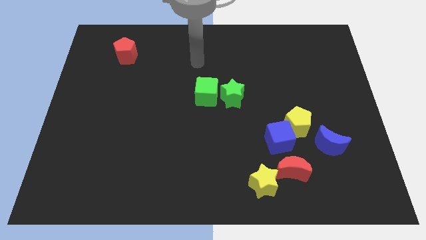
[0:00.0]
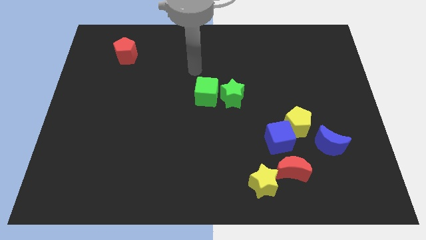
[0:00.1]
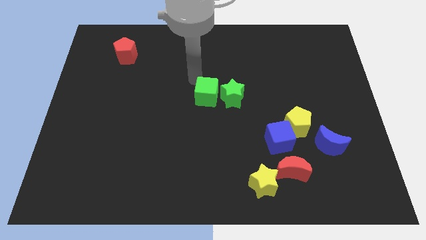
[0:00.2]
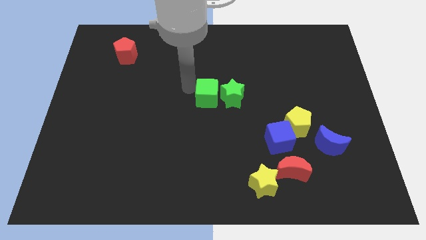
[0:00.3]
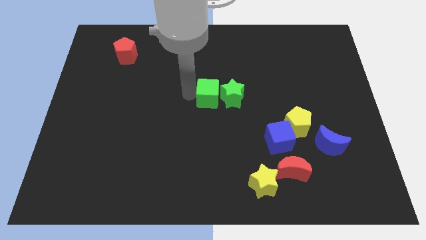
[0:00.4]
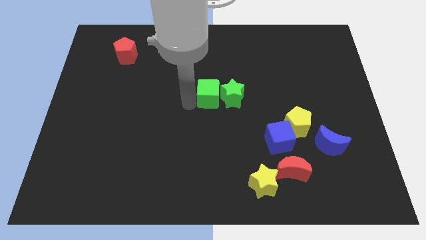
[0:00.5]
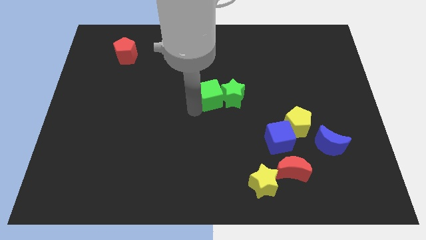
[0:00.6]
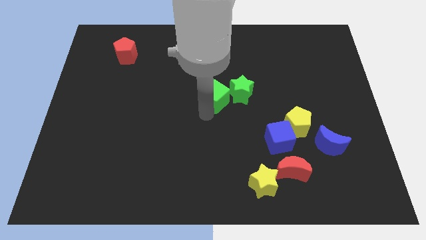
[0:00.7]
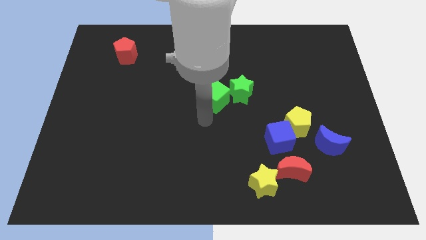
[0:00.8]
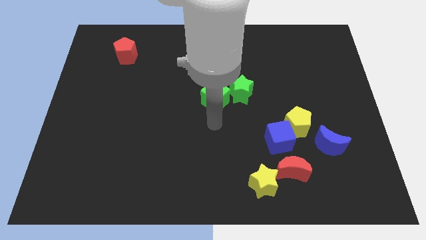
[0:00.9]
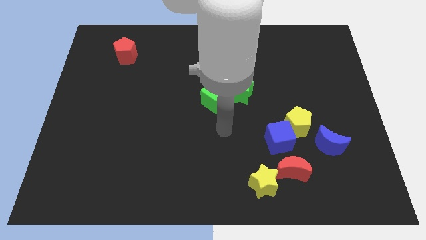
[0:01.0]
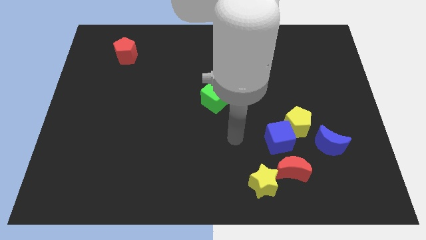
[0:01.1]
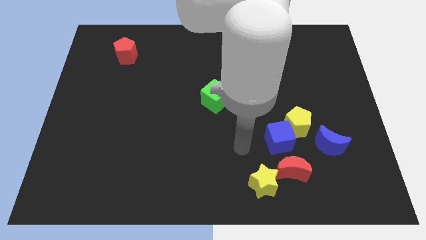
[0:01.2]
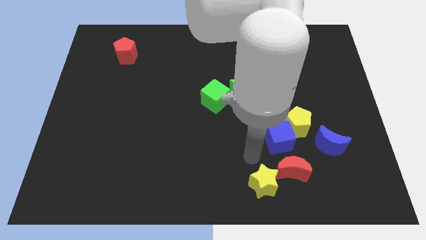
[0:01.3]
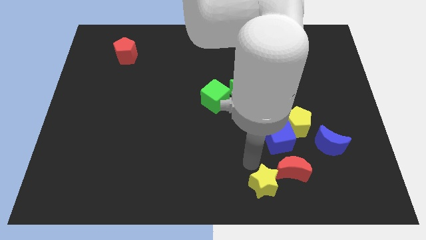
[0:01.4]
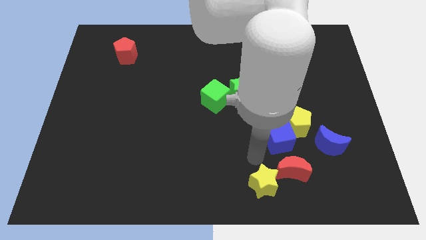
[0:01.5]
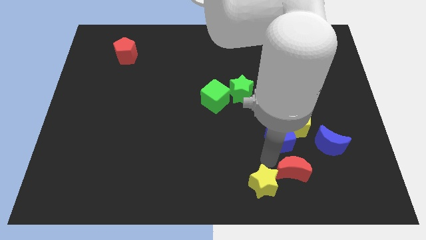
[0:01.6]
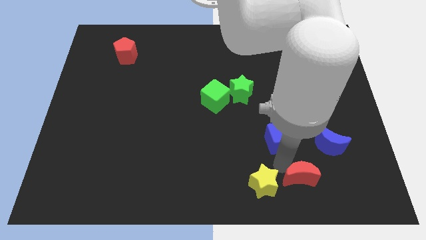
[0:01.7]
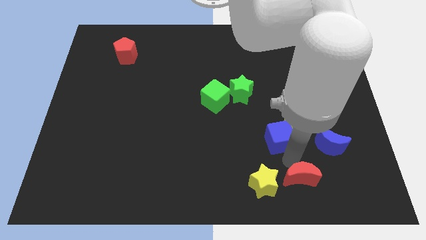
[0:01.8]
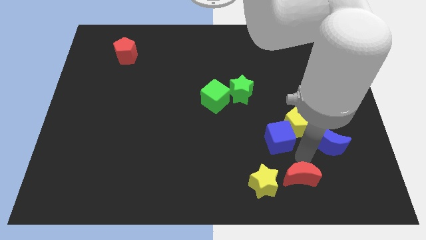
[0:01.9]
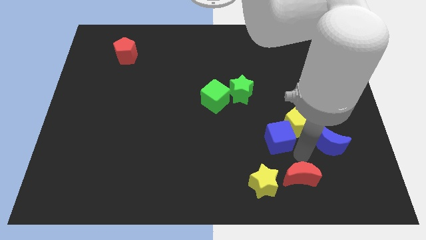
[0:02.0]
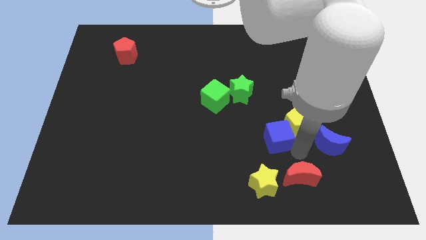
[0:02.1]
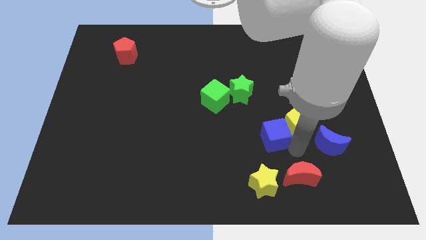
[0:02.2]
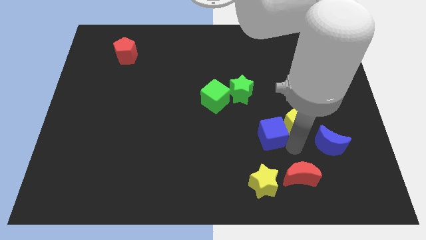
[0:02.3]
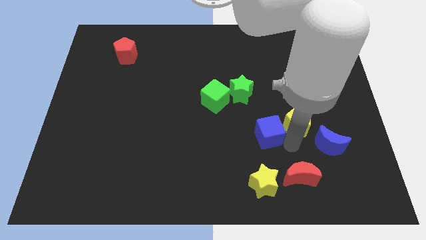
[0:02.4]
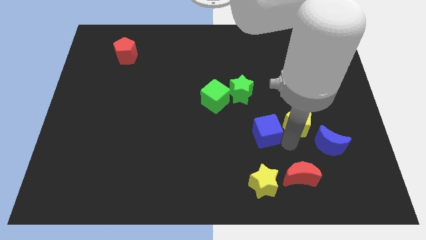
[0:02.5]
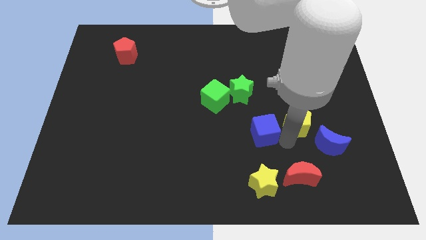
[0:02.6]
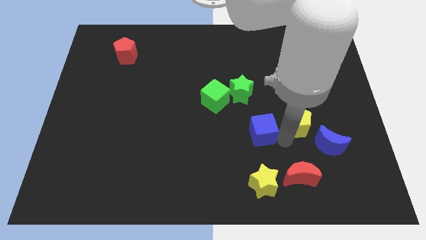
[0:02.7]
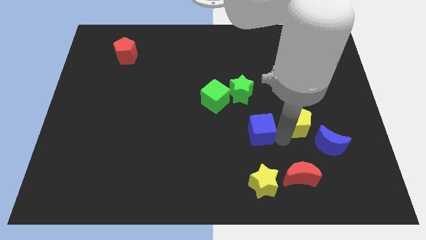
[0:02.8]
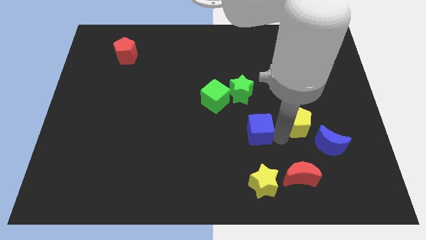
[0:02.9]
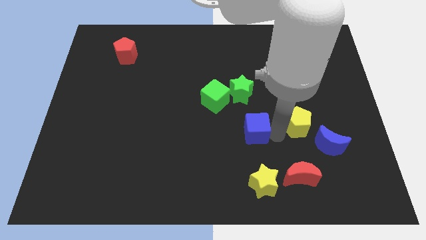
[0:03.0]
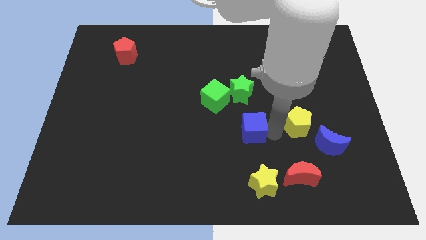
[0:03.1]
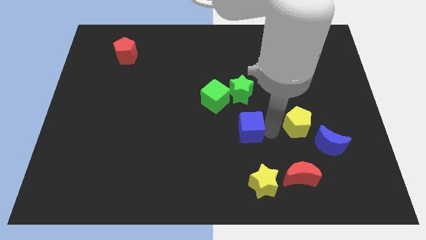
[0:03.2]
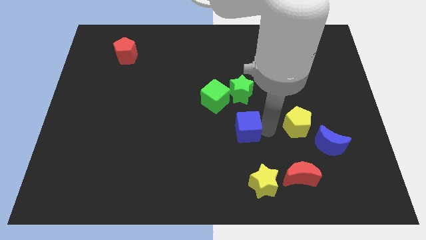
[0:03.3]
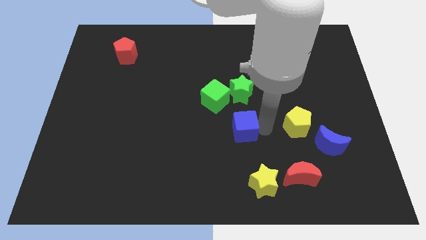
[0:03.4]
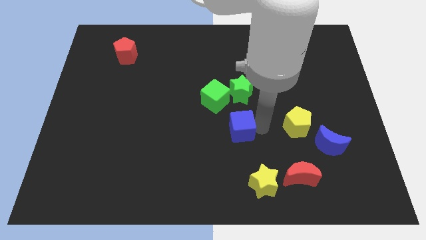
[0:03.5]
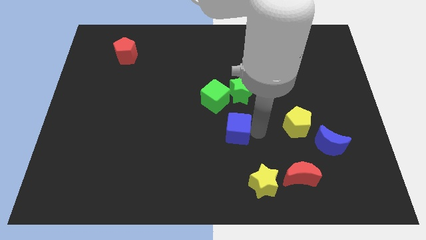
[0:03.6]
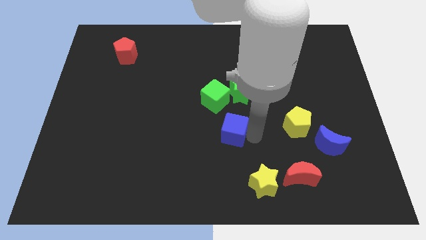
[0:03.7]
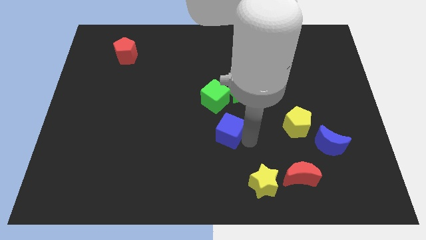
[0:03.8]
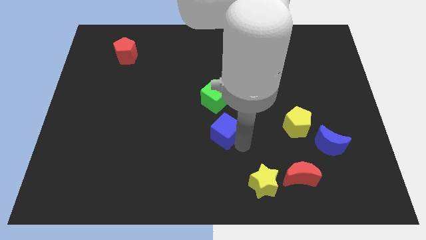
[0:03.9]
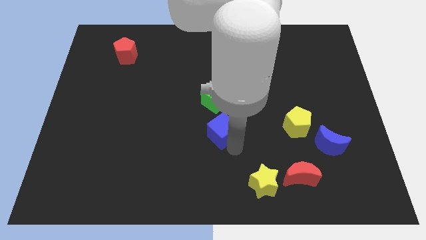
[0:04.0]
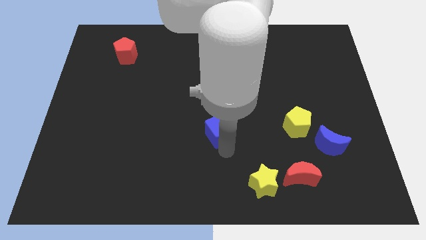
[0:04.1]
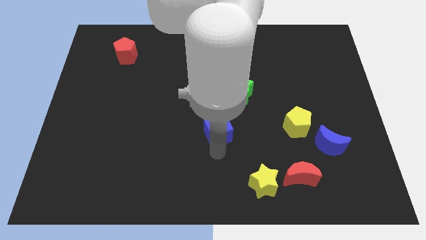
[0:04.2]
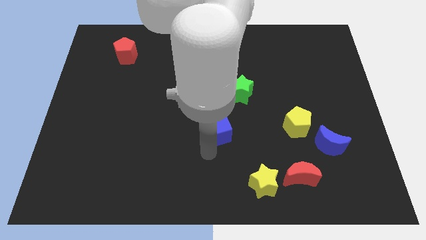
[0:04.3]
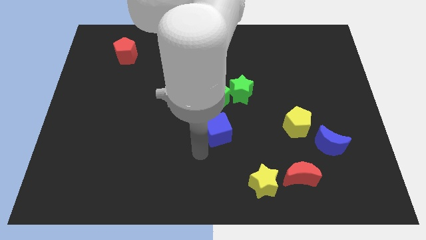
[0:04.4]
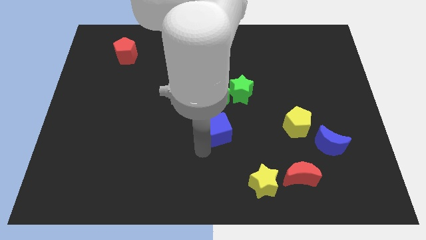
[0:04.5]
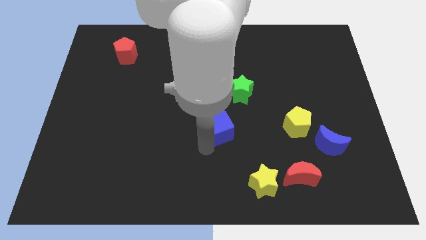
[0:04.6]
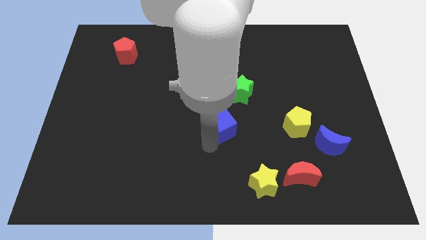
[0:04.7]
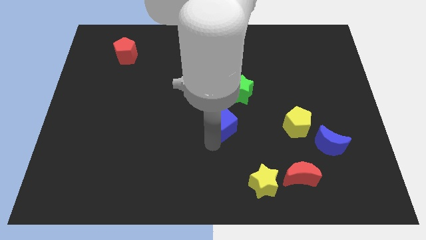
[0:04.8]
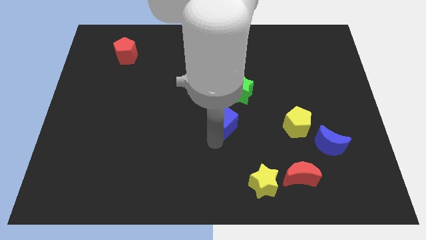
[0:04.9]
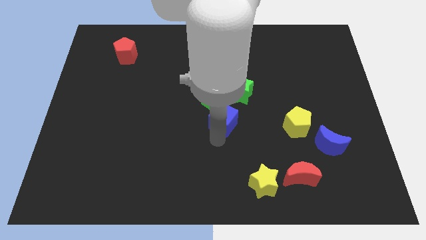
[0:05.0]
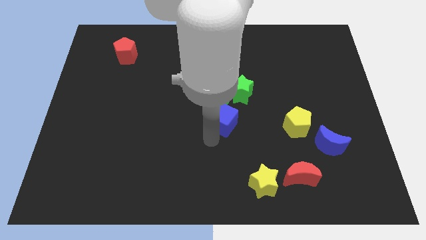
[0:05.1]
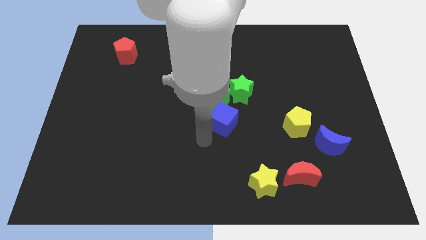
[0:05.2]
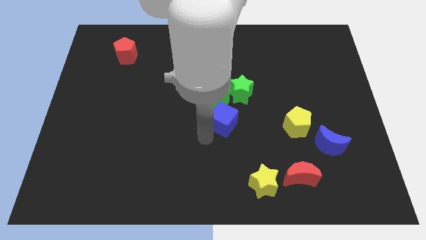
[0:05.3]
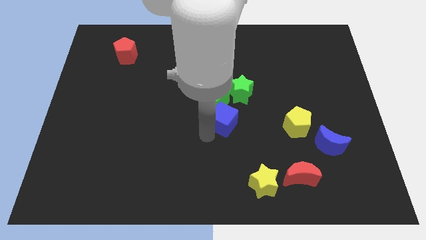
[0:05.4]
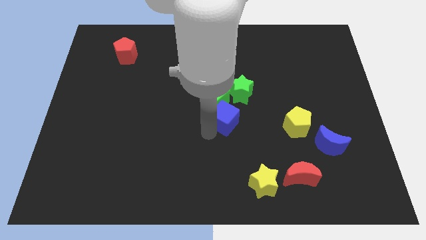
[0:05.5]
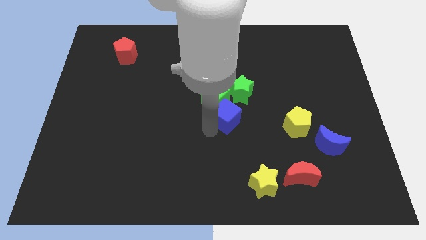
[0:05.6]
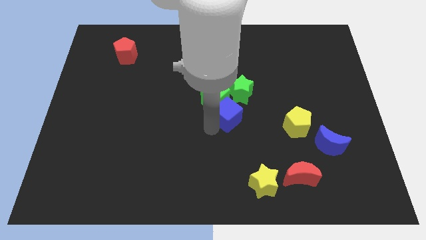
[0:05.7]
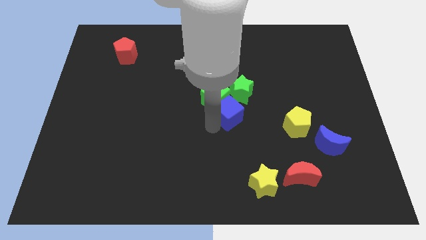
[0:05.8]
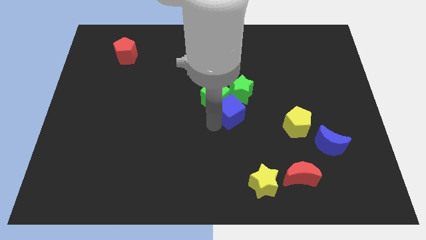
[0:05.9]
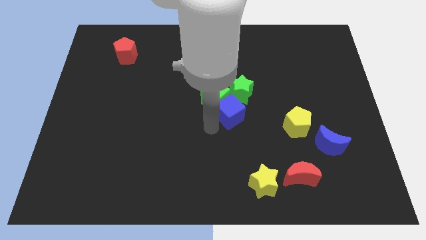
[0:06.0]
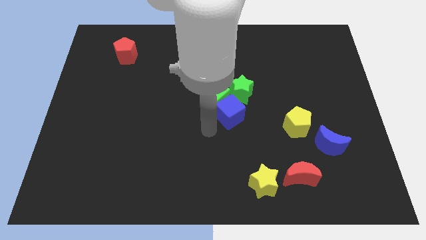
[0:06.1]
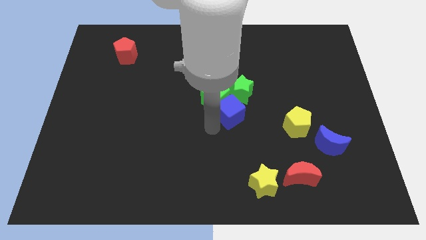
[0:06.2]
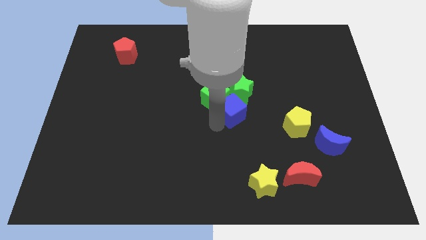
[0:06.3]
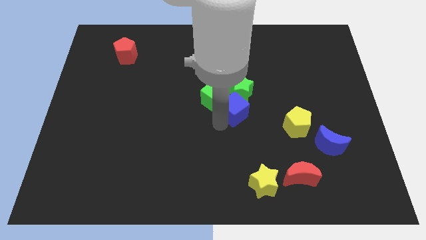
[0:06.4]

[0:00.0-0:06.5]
slide the blue cube towards the green star

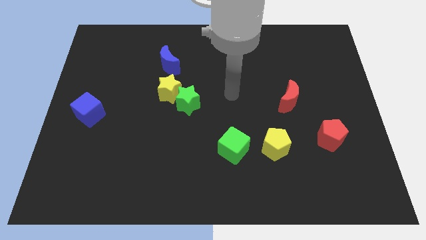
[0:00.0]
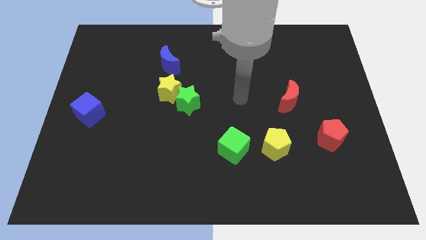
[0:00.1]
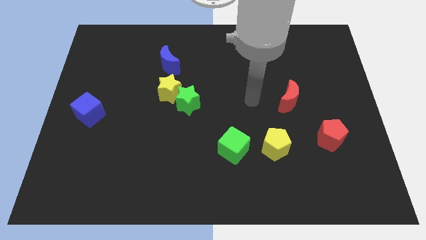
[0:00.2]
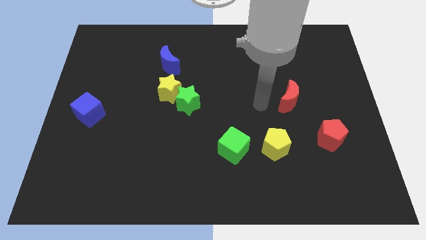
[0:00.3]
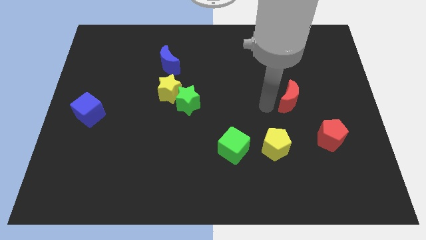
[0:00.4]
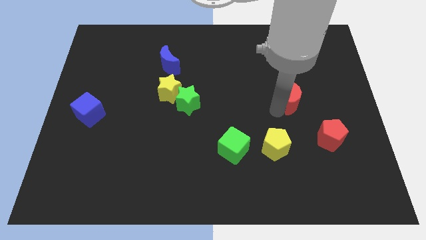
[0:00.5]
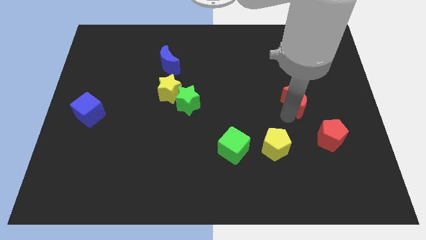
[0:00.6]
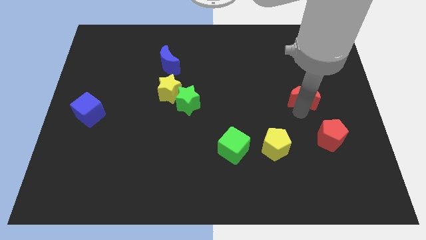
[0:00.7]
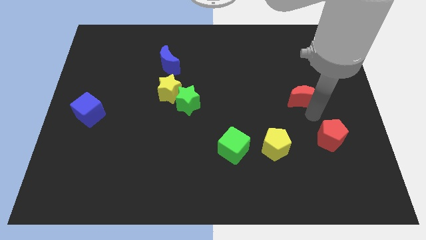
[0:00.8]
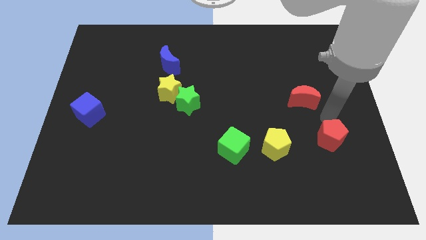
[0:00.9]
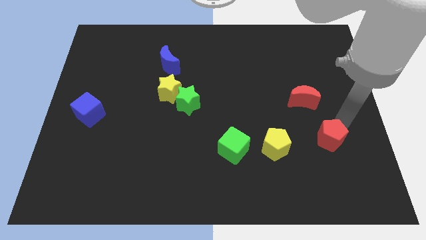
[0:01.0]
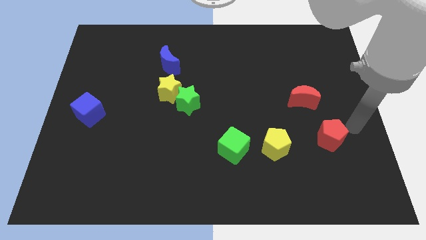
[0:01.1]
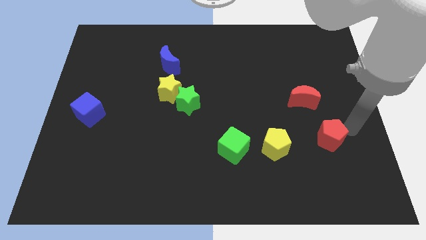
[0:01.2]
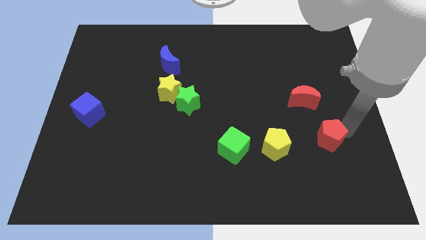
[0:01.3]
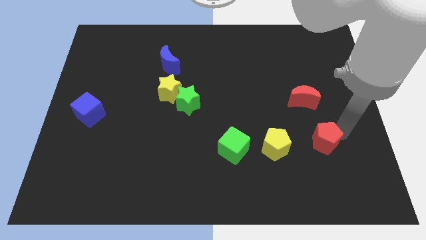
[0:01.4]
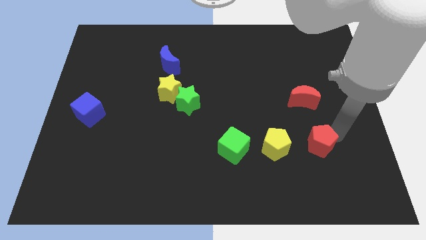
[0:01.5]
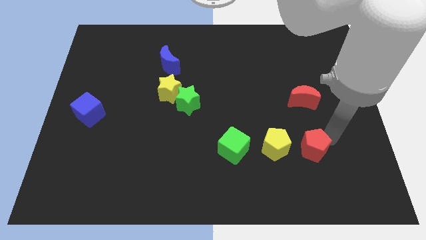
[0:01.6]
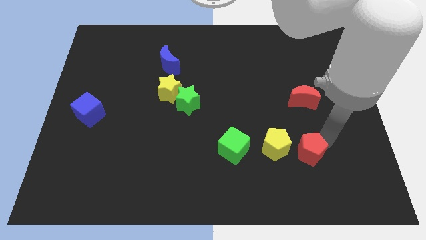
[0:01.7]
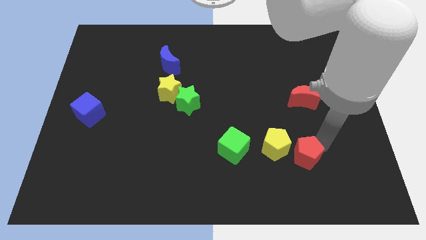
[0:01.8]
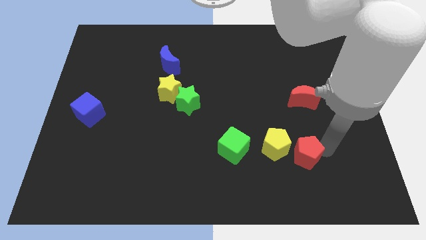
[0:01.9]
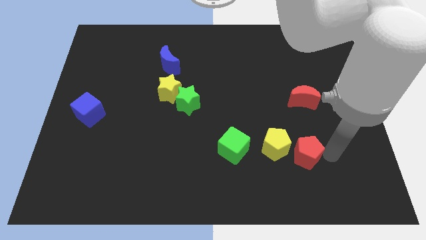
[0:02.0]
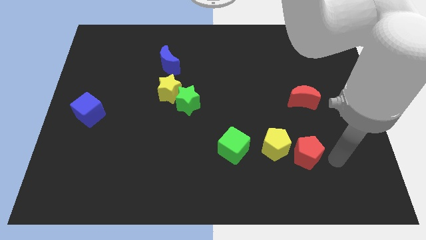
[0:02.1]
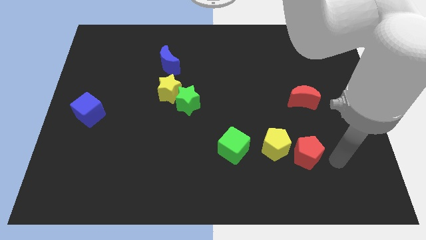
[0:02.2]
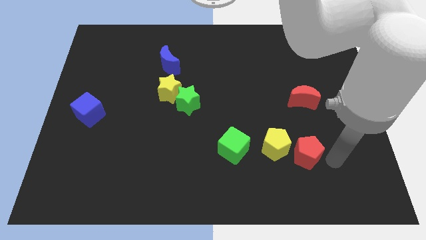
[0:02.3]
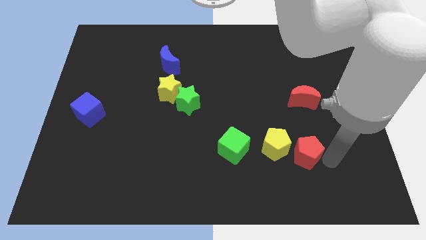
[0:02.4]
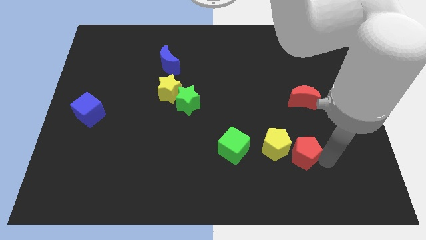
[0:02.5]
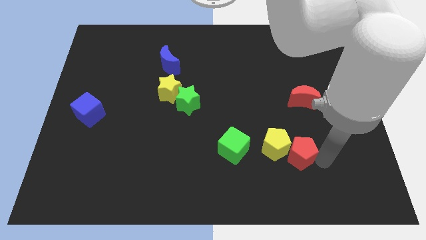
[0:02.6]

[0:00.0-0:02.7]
push the red pentagon towards the yellow pentagon
